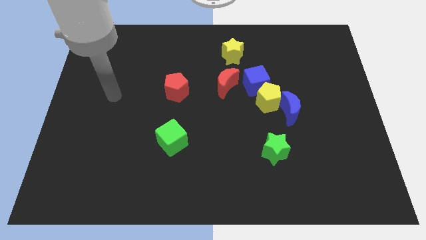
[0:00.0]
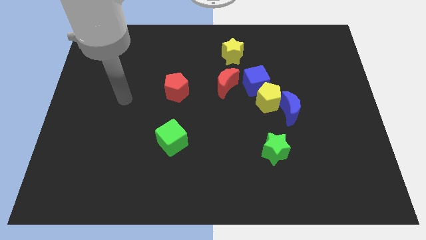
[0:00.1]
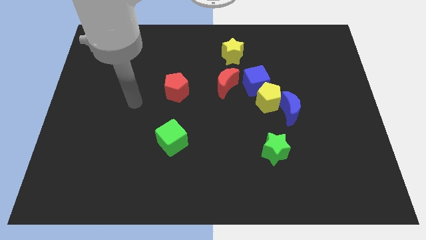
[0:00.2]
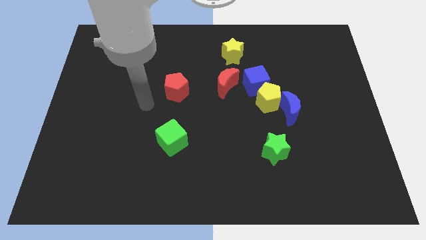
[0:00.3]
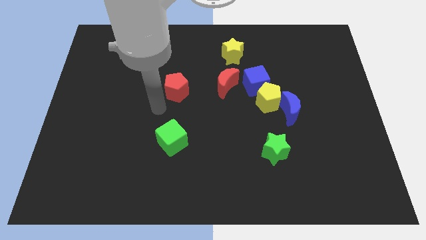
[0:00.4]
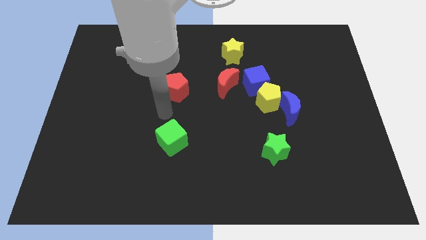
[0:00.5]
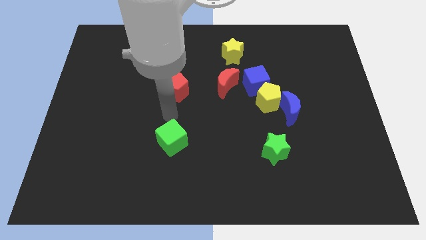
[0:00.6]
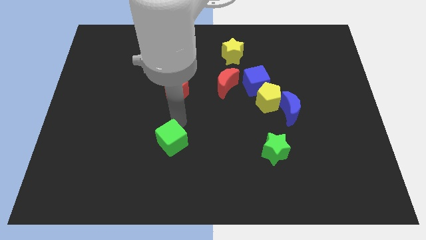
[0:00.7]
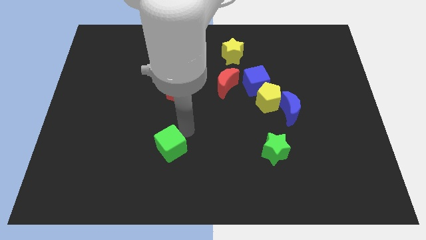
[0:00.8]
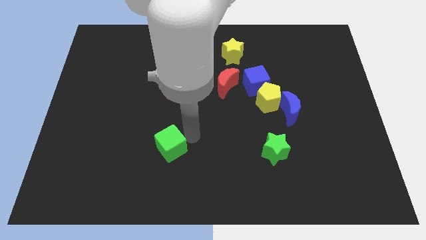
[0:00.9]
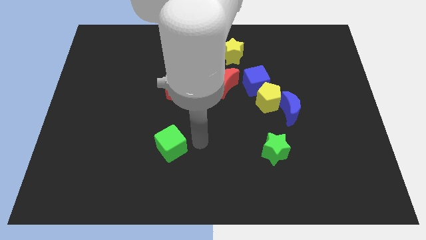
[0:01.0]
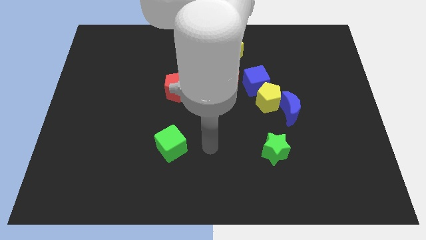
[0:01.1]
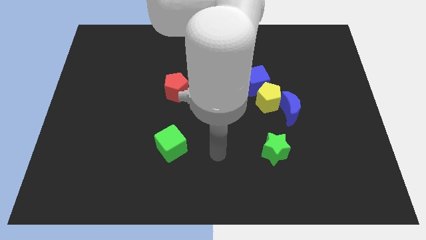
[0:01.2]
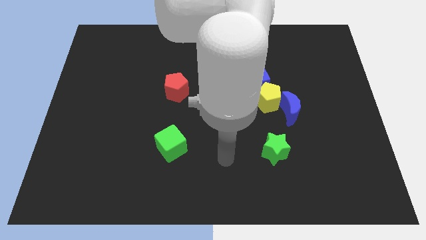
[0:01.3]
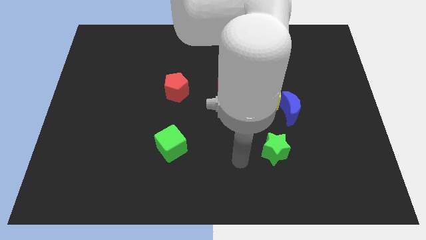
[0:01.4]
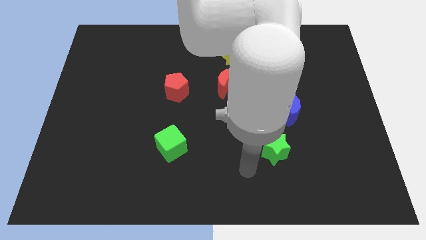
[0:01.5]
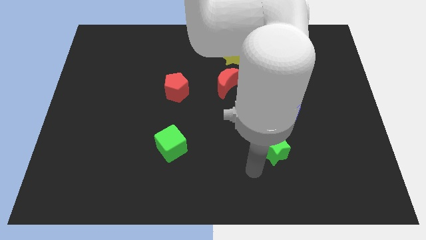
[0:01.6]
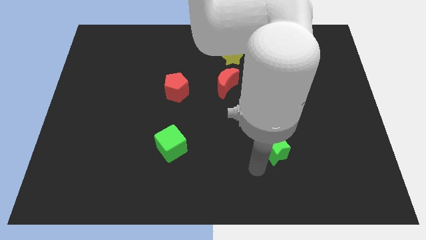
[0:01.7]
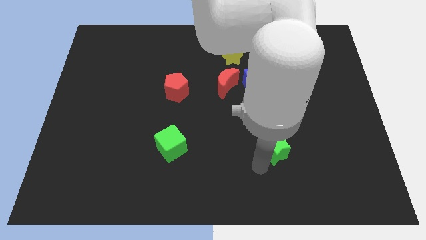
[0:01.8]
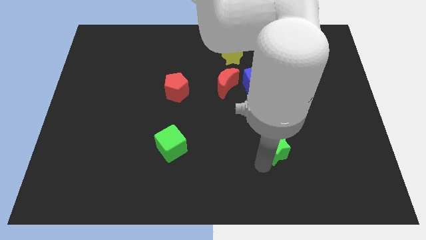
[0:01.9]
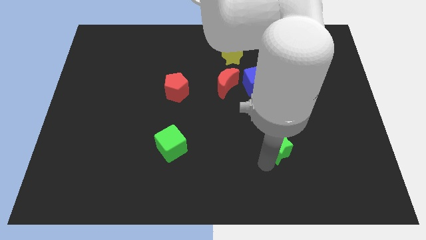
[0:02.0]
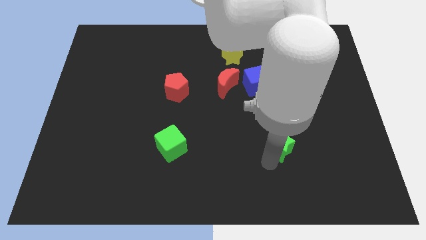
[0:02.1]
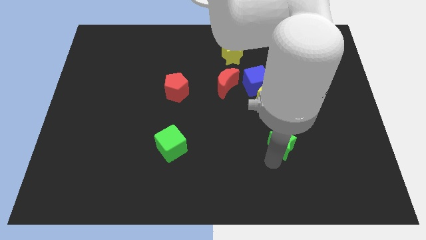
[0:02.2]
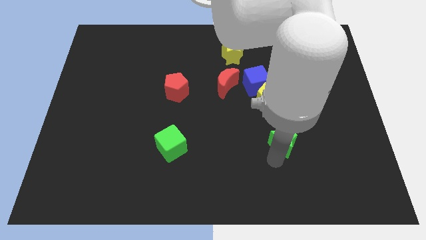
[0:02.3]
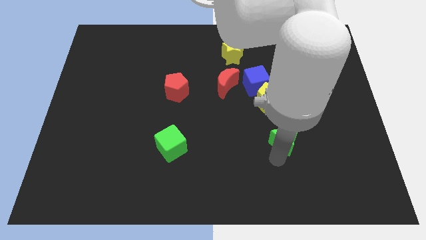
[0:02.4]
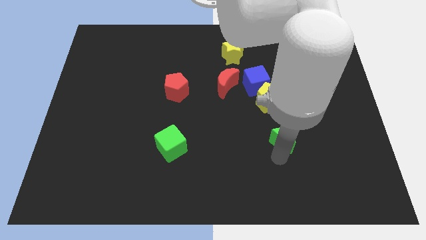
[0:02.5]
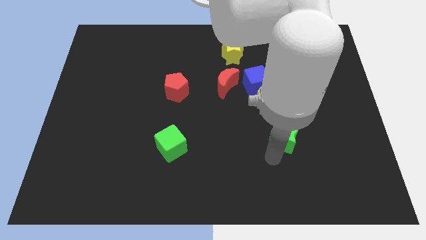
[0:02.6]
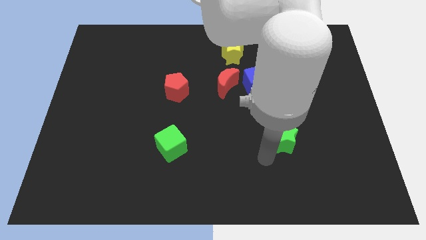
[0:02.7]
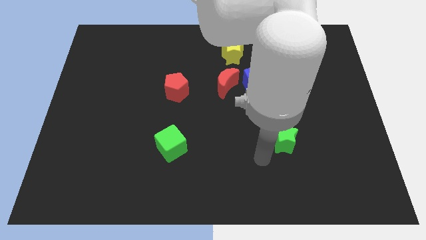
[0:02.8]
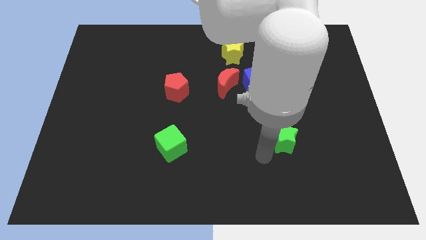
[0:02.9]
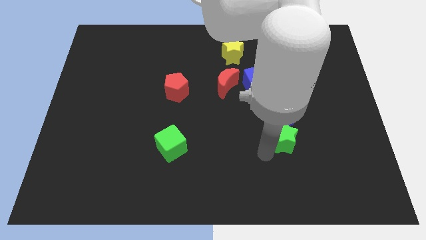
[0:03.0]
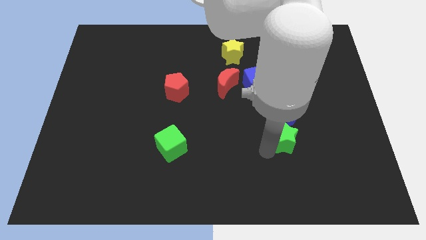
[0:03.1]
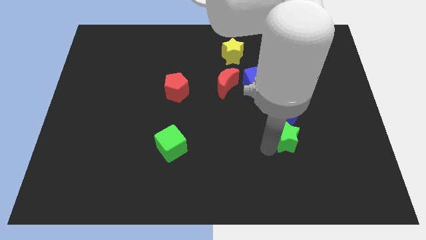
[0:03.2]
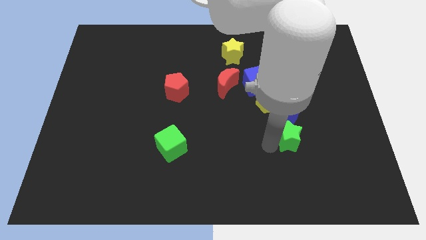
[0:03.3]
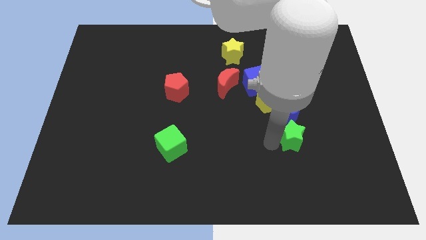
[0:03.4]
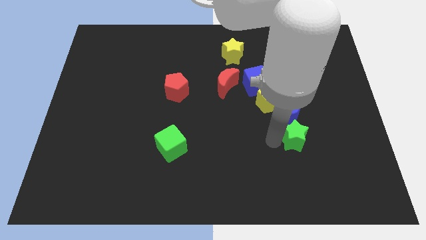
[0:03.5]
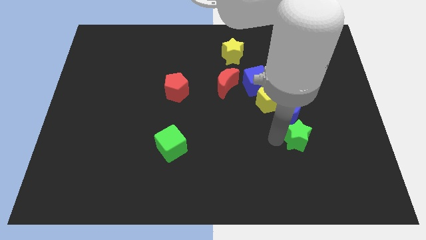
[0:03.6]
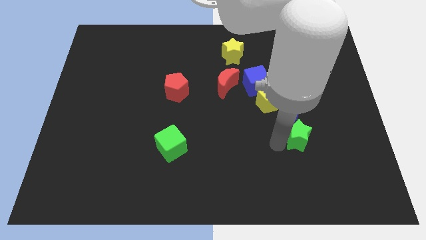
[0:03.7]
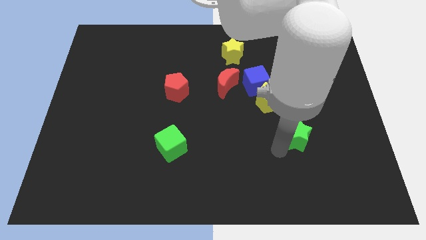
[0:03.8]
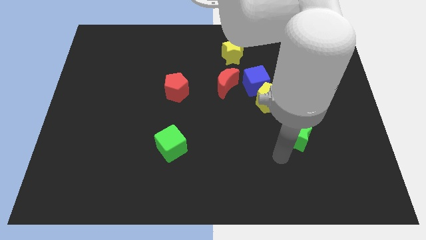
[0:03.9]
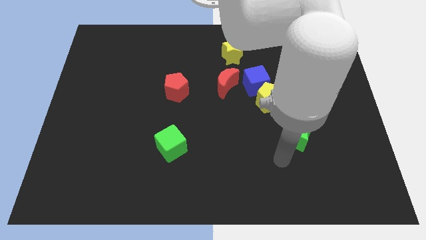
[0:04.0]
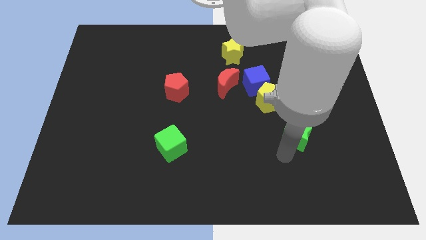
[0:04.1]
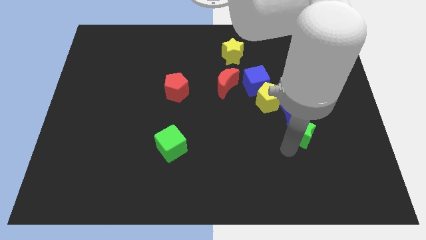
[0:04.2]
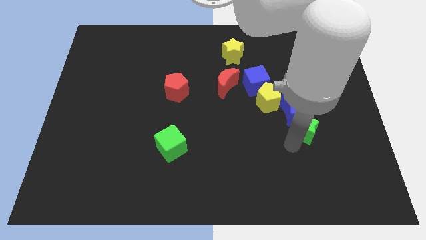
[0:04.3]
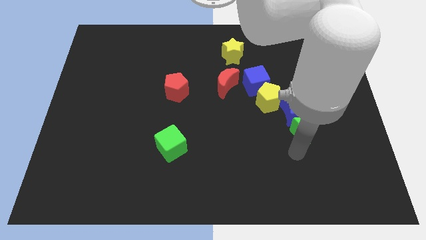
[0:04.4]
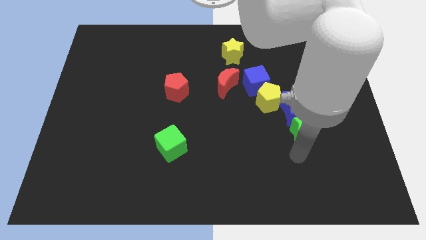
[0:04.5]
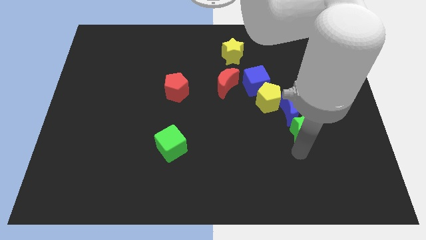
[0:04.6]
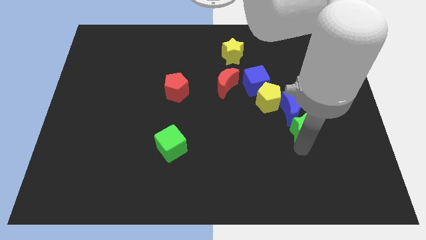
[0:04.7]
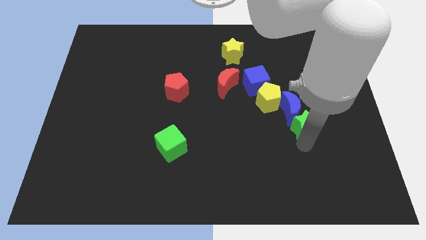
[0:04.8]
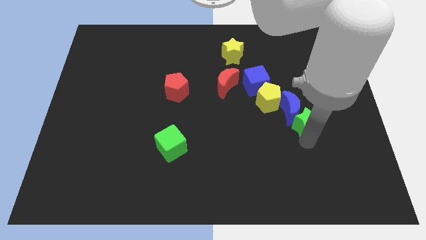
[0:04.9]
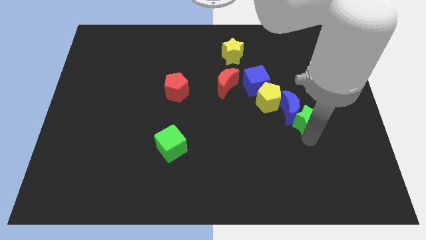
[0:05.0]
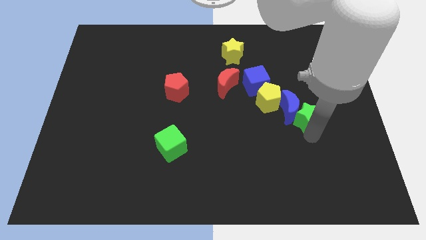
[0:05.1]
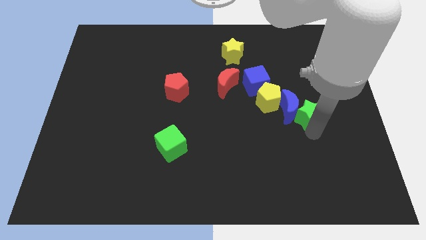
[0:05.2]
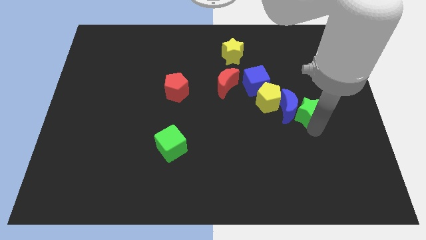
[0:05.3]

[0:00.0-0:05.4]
put the green star diagonally up and to the right of the blue moon

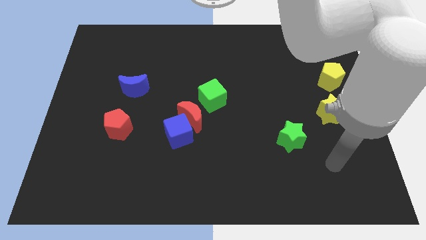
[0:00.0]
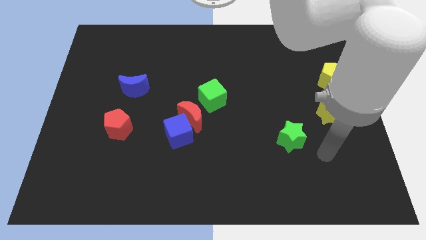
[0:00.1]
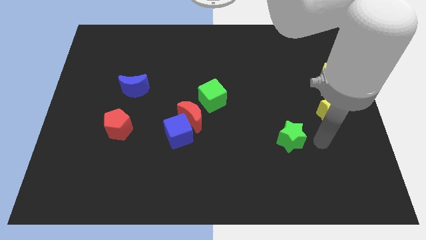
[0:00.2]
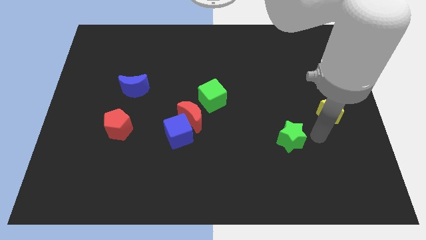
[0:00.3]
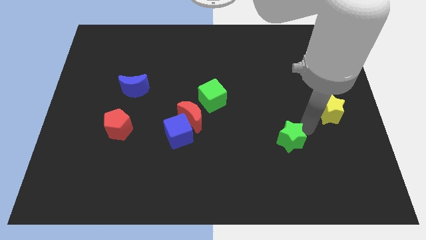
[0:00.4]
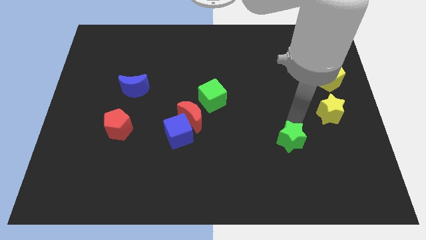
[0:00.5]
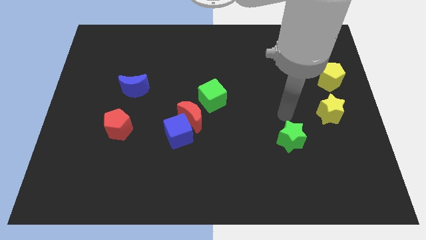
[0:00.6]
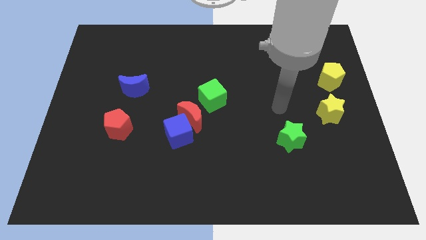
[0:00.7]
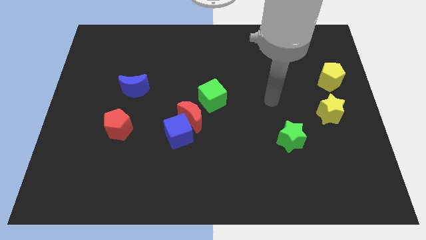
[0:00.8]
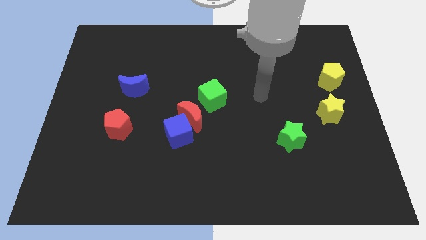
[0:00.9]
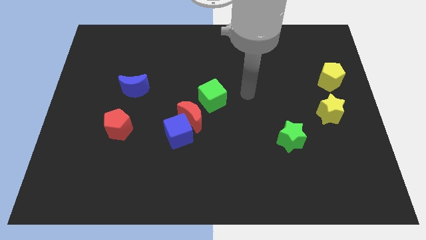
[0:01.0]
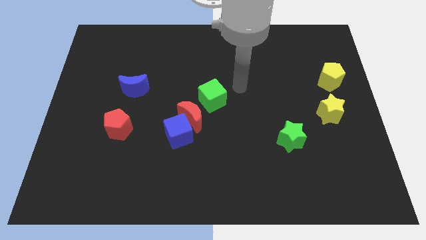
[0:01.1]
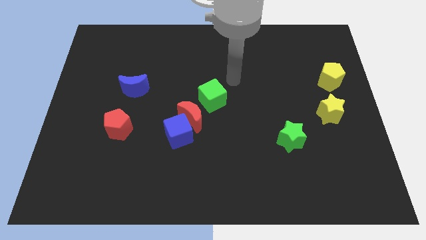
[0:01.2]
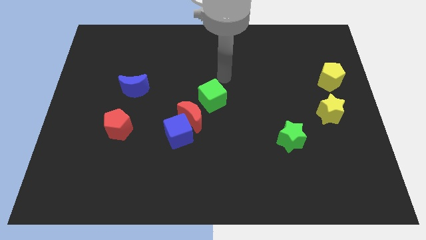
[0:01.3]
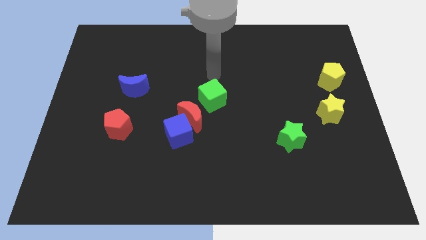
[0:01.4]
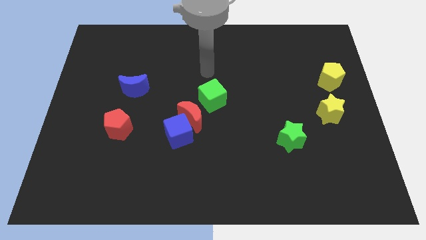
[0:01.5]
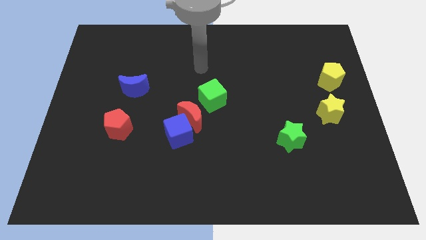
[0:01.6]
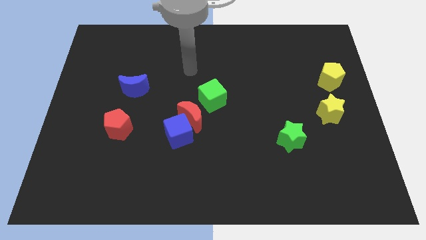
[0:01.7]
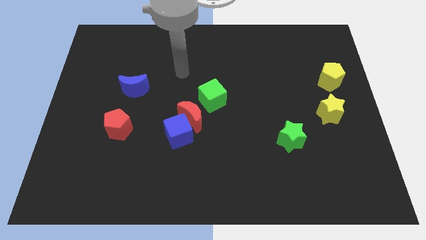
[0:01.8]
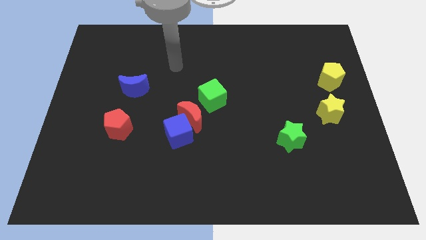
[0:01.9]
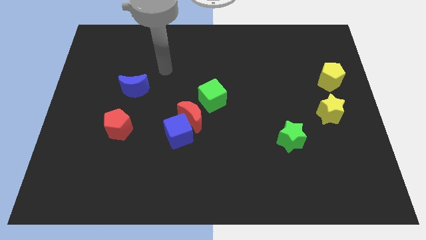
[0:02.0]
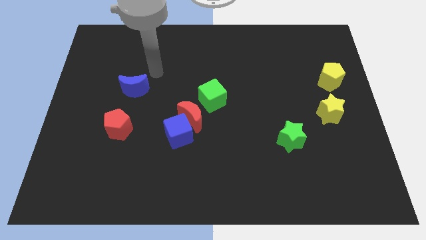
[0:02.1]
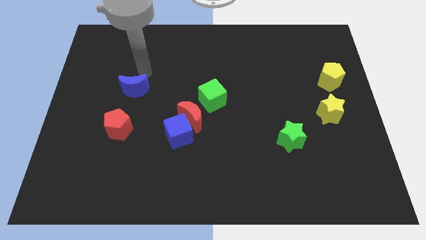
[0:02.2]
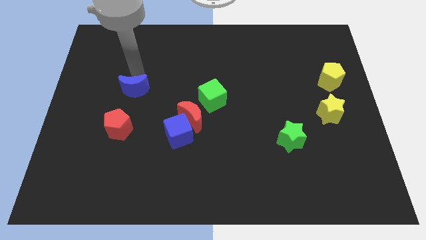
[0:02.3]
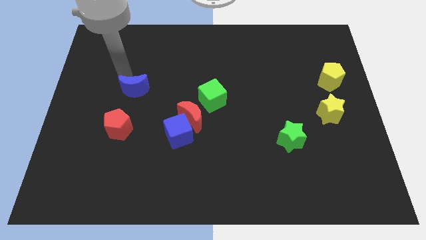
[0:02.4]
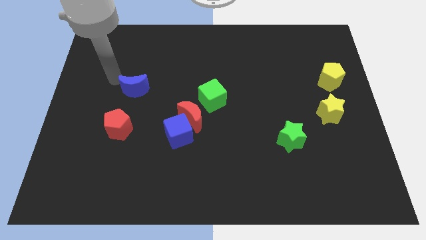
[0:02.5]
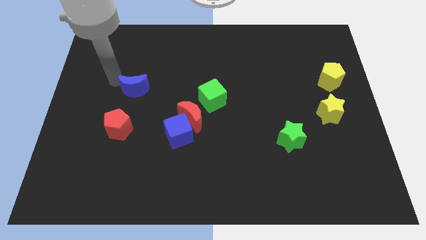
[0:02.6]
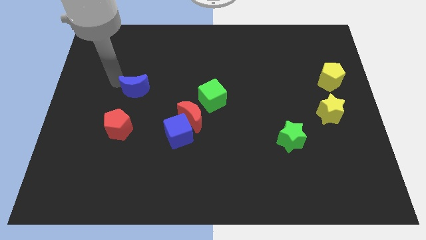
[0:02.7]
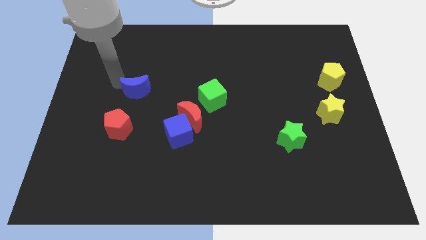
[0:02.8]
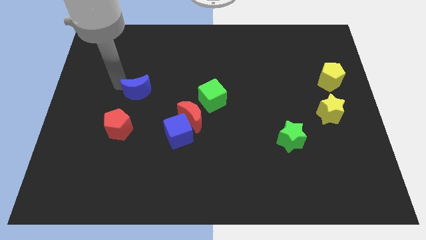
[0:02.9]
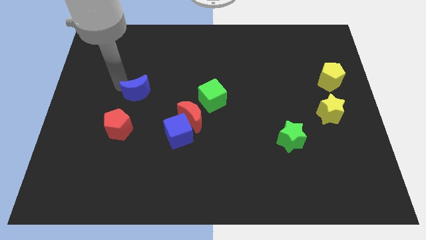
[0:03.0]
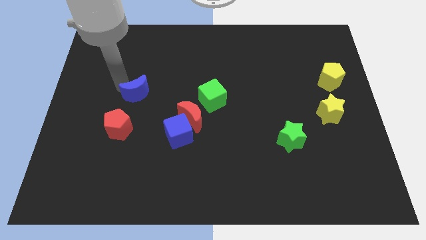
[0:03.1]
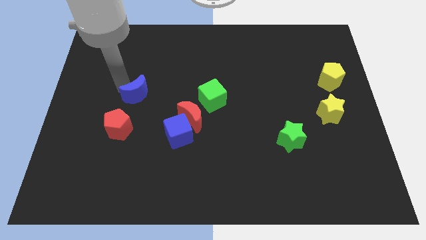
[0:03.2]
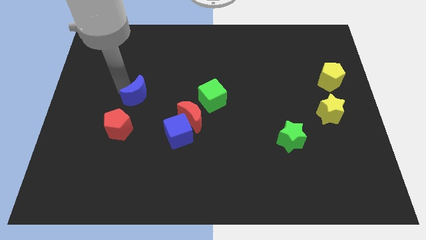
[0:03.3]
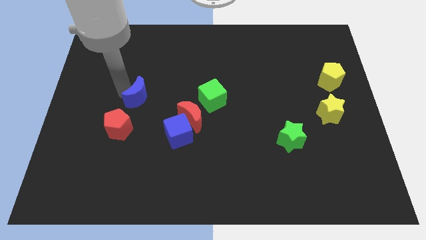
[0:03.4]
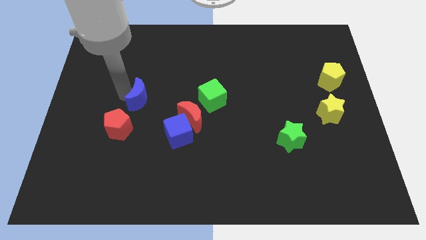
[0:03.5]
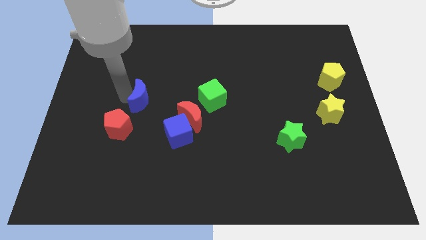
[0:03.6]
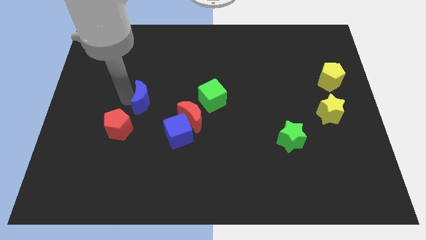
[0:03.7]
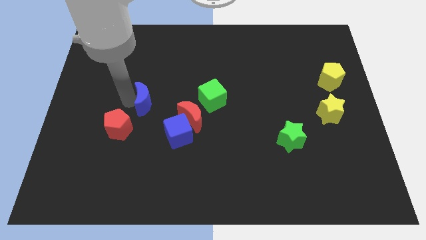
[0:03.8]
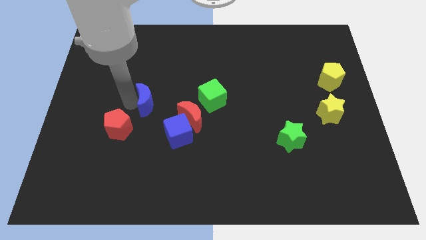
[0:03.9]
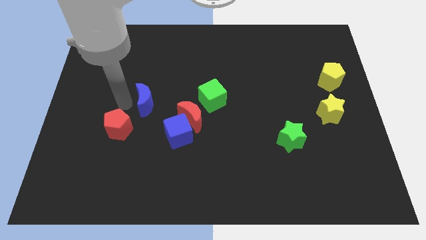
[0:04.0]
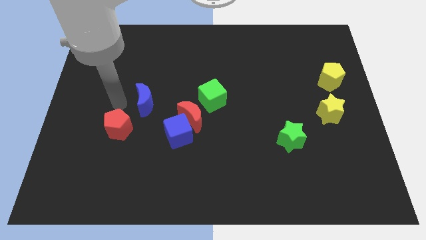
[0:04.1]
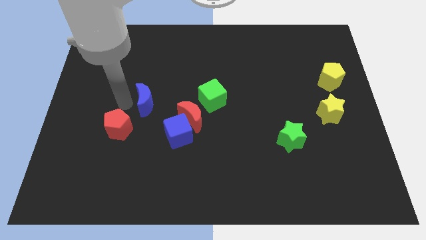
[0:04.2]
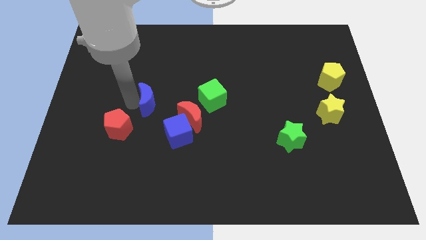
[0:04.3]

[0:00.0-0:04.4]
put the blue moon to the top left side of the red moon
